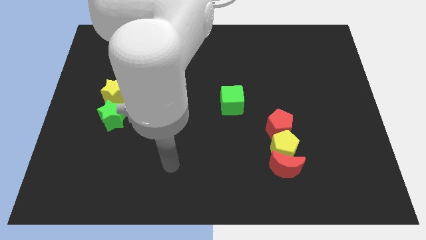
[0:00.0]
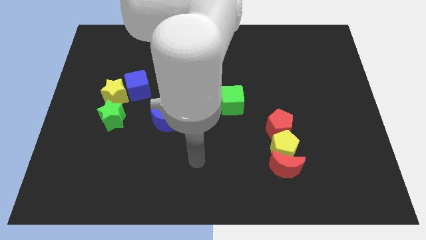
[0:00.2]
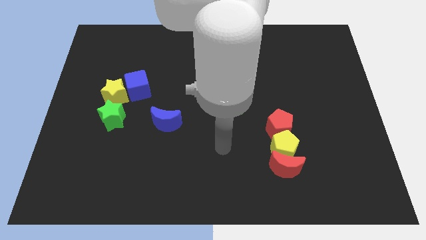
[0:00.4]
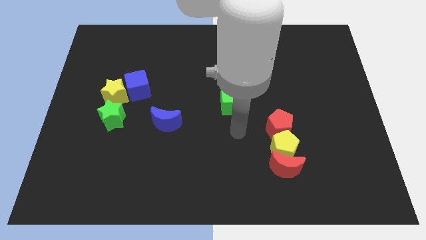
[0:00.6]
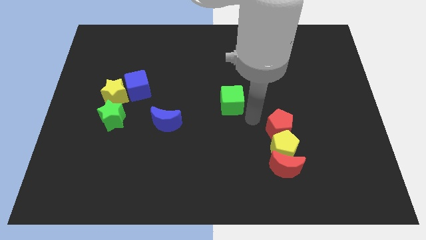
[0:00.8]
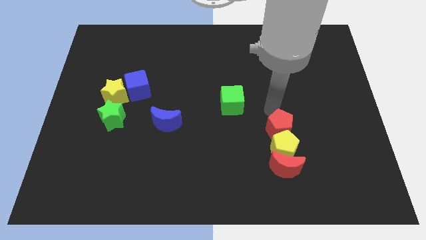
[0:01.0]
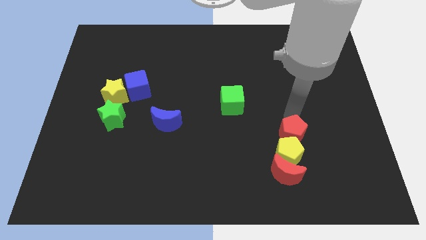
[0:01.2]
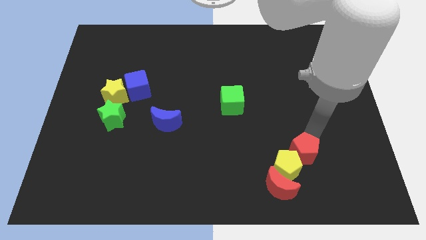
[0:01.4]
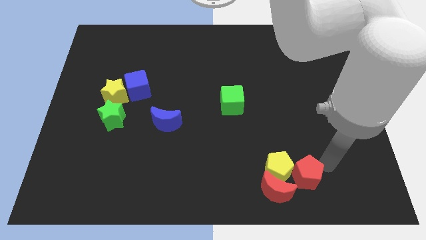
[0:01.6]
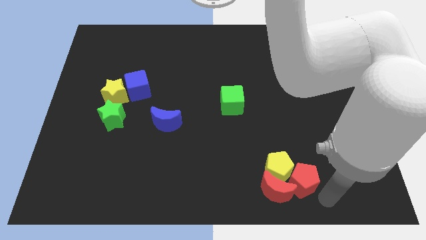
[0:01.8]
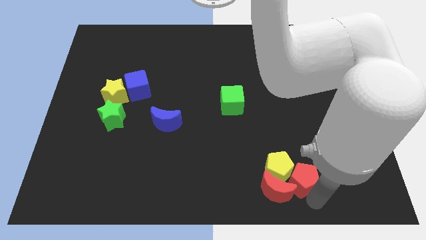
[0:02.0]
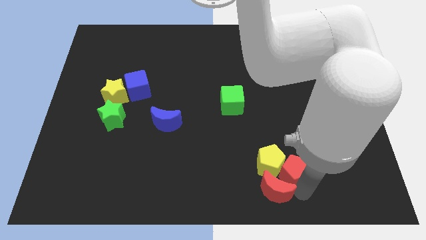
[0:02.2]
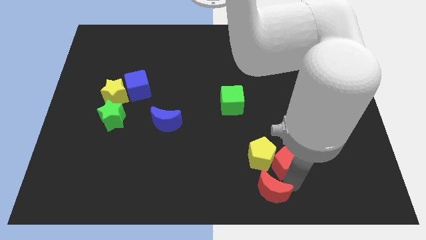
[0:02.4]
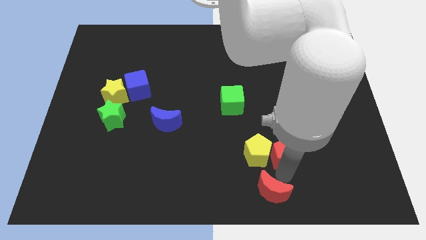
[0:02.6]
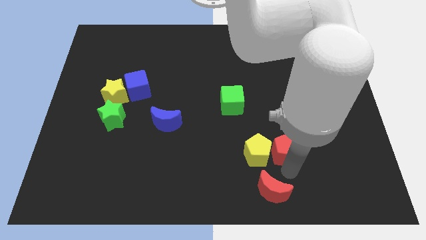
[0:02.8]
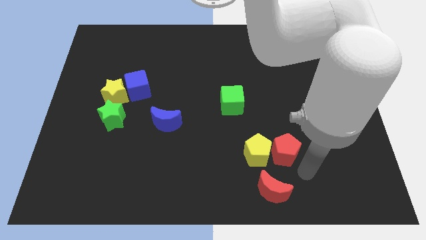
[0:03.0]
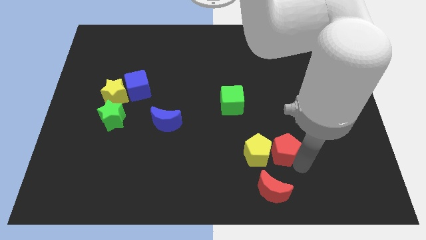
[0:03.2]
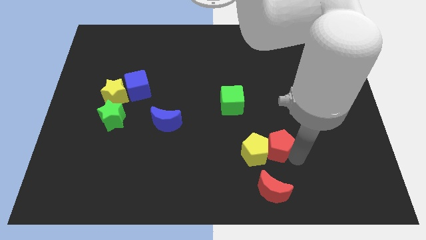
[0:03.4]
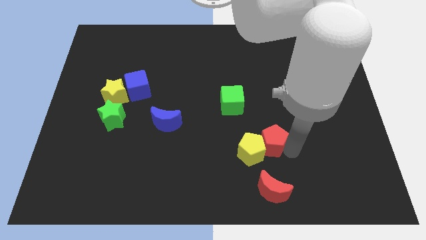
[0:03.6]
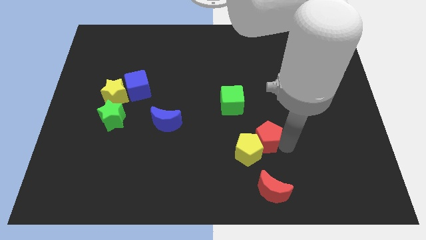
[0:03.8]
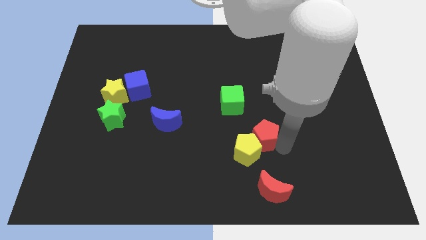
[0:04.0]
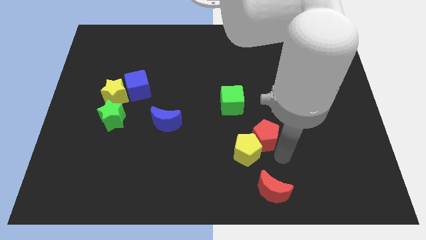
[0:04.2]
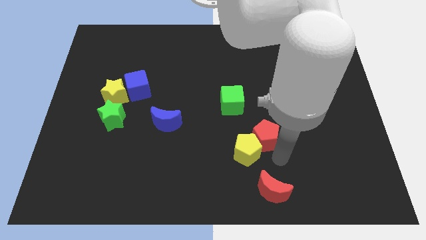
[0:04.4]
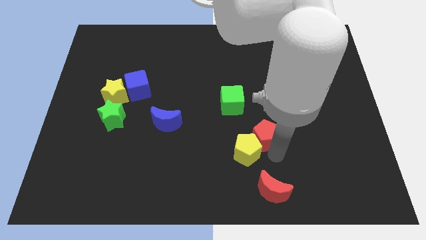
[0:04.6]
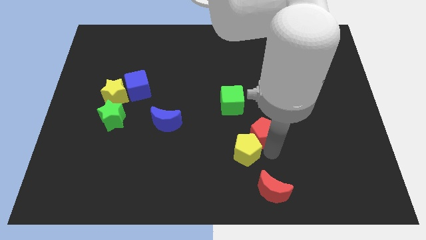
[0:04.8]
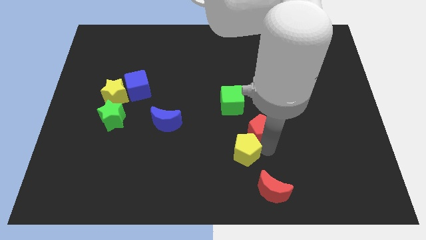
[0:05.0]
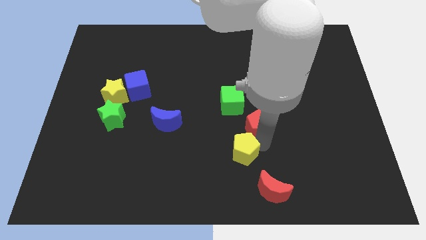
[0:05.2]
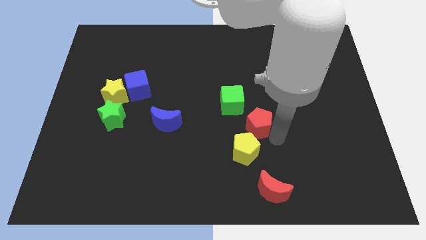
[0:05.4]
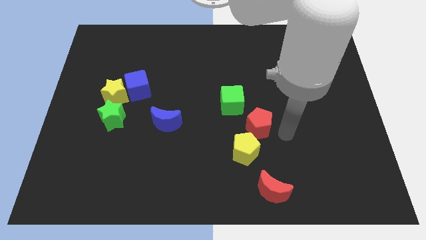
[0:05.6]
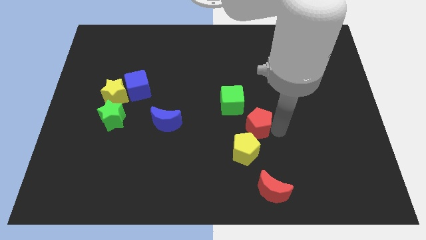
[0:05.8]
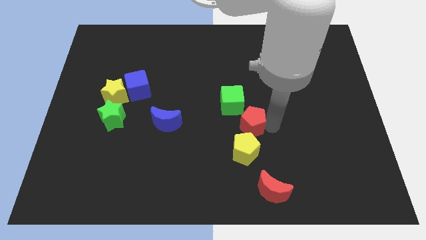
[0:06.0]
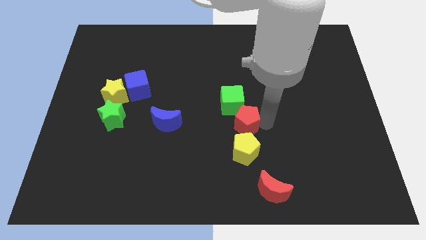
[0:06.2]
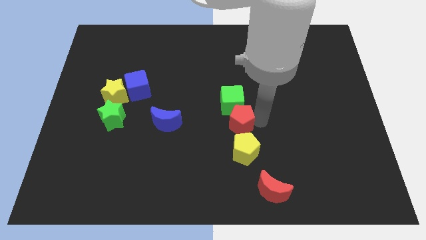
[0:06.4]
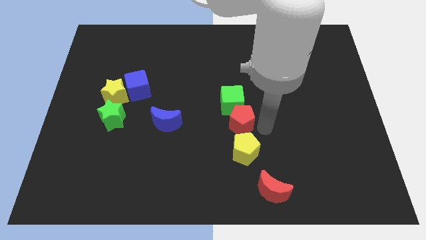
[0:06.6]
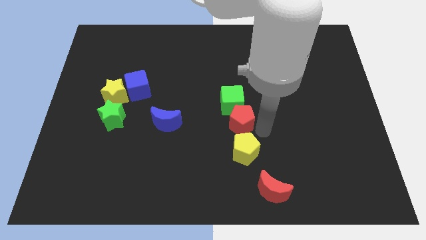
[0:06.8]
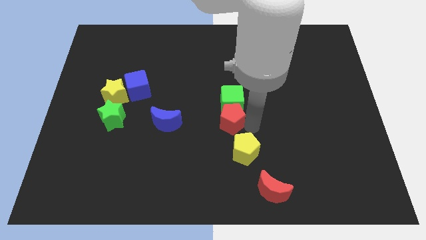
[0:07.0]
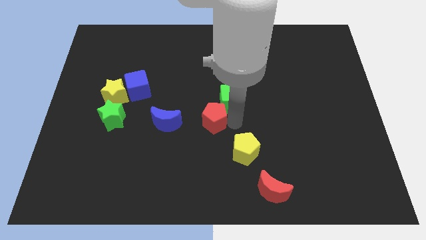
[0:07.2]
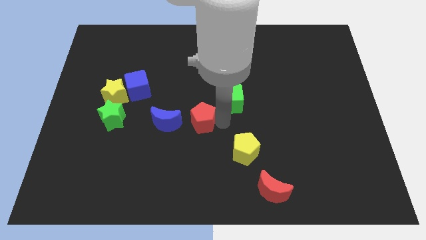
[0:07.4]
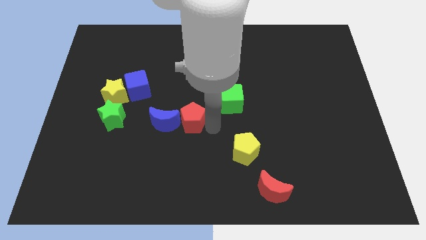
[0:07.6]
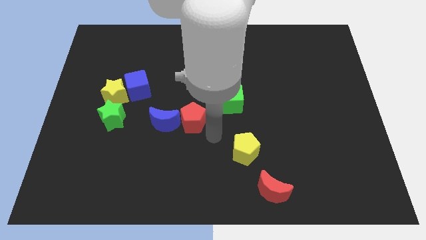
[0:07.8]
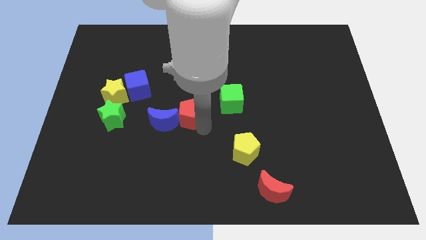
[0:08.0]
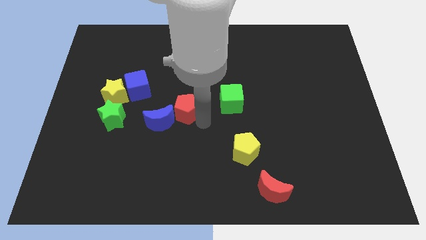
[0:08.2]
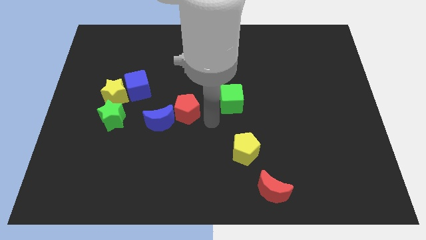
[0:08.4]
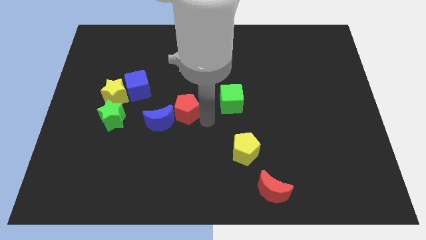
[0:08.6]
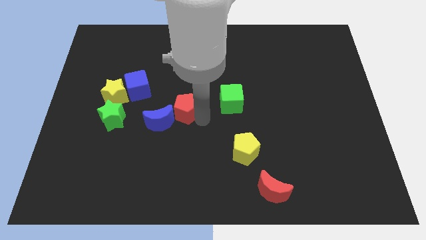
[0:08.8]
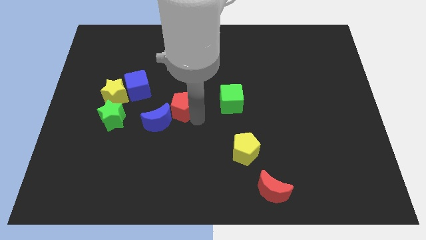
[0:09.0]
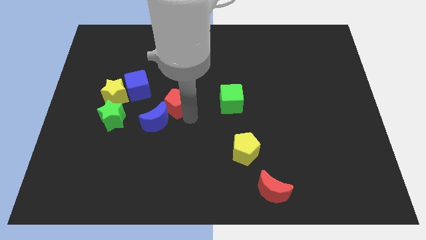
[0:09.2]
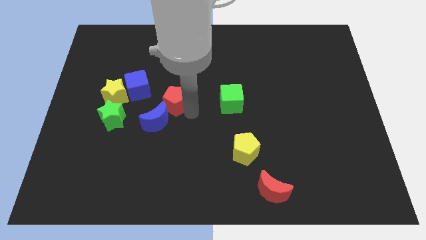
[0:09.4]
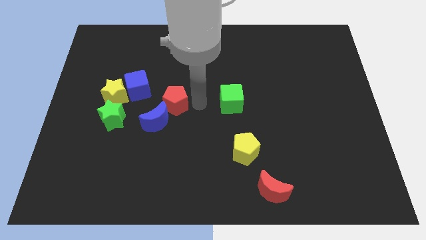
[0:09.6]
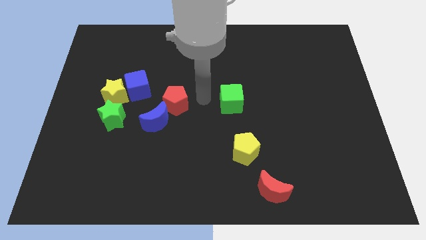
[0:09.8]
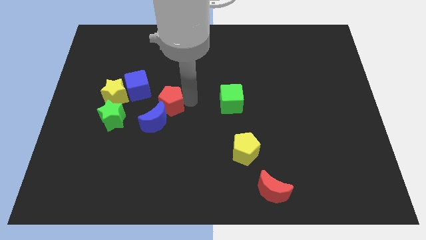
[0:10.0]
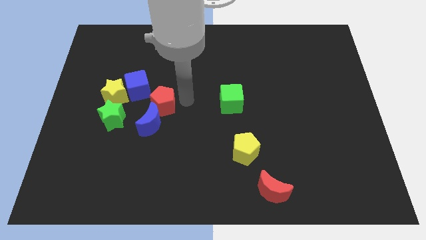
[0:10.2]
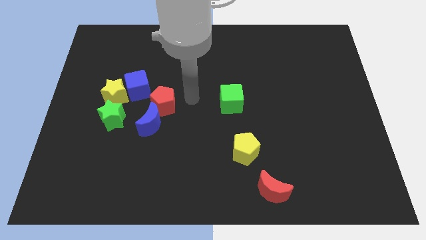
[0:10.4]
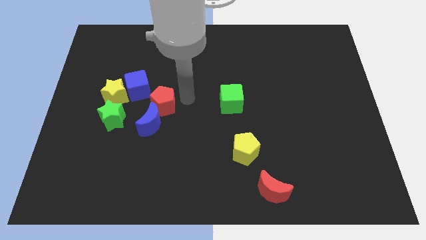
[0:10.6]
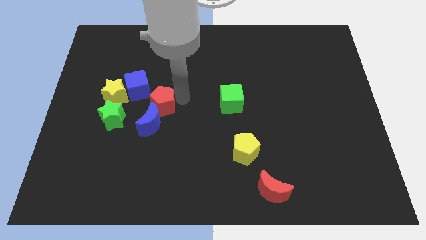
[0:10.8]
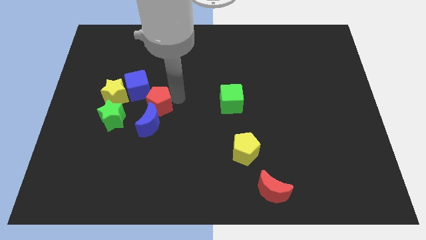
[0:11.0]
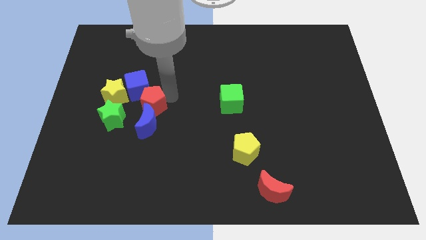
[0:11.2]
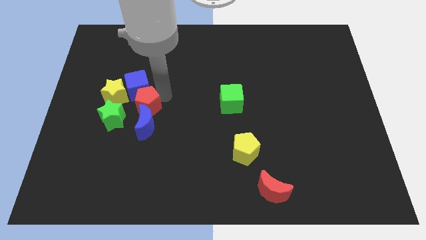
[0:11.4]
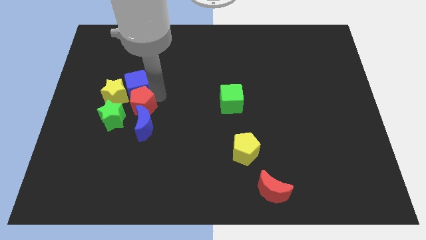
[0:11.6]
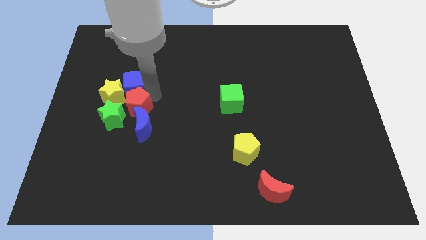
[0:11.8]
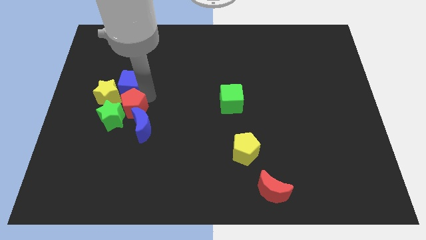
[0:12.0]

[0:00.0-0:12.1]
push the red pentagon to the green star

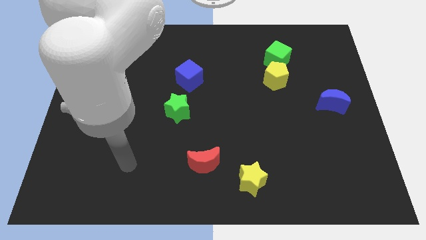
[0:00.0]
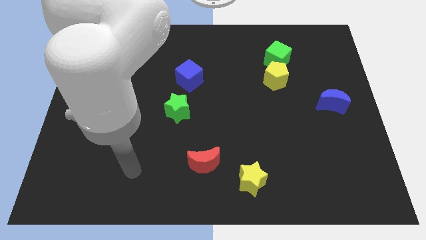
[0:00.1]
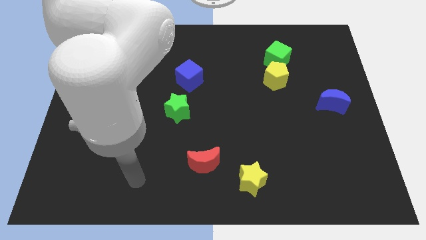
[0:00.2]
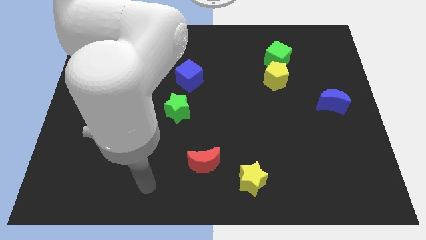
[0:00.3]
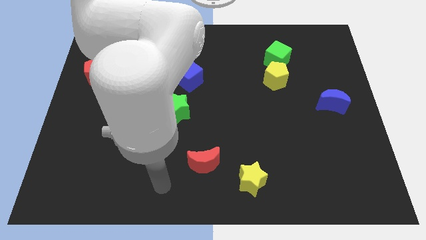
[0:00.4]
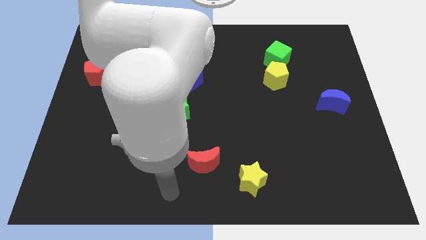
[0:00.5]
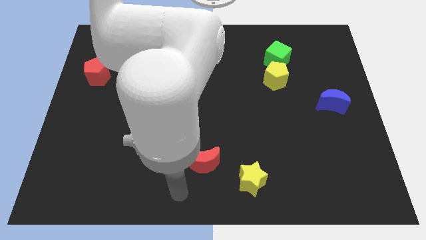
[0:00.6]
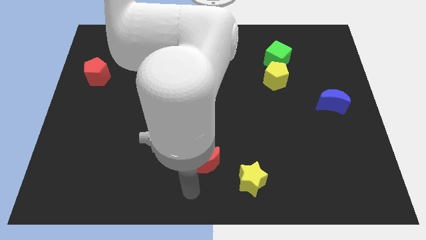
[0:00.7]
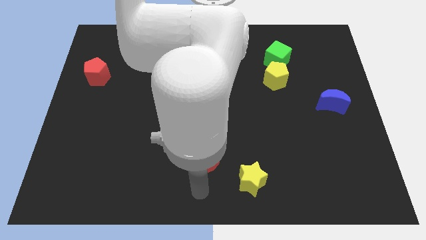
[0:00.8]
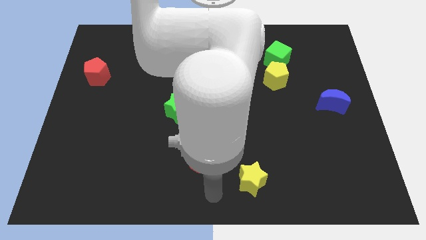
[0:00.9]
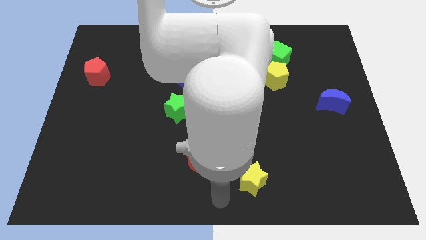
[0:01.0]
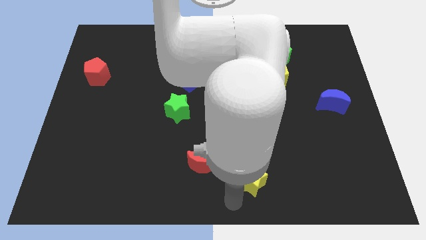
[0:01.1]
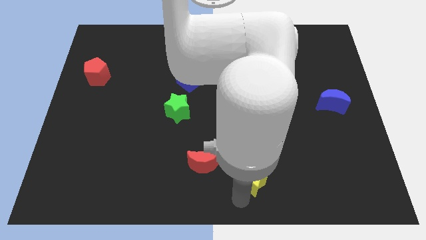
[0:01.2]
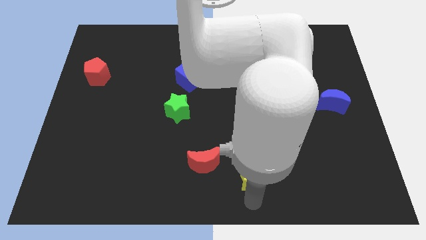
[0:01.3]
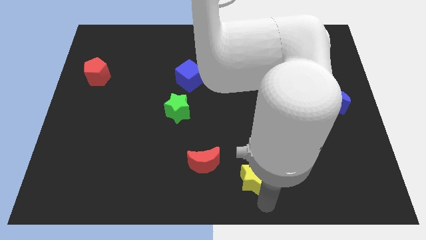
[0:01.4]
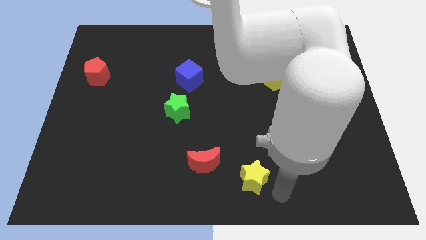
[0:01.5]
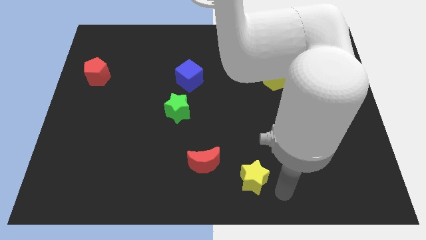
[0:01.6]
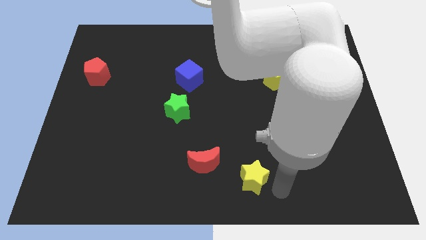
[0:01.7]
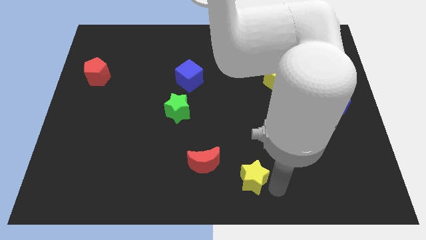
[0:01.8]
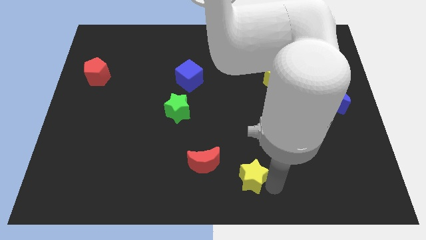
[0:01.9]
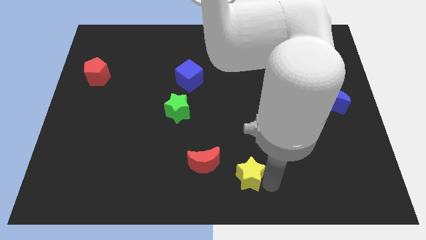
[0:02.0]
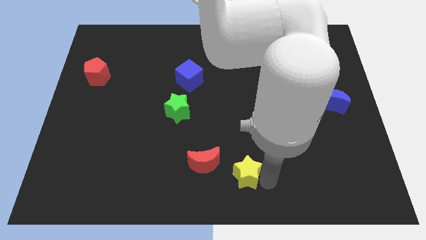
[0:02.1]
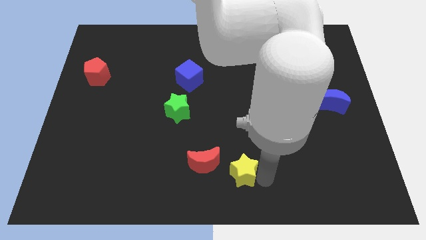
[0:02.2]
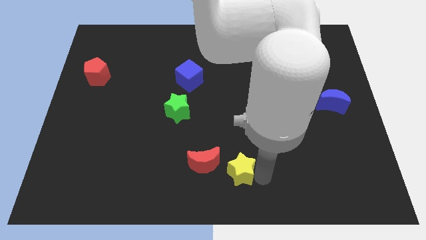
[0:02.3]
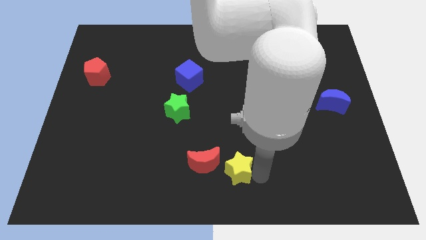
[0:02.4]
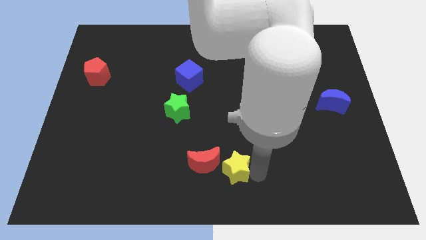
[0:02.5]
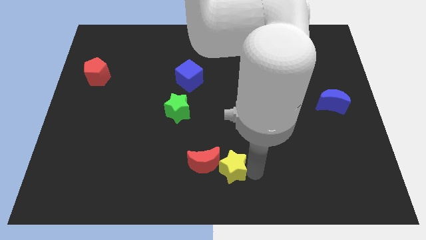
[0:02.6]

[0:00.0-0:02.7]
move the yellow star close to the red moon
